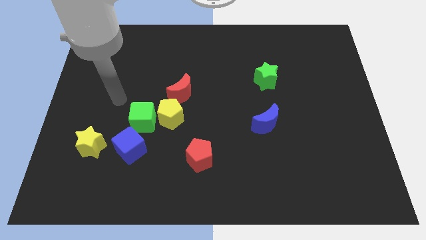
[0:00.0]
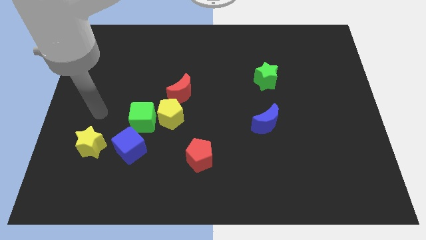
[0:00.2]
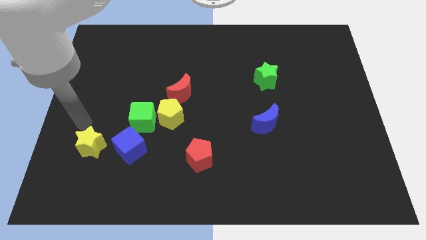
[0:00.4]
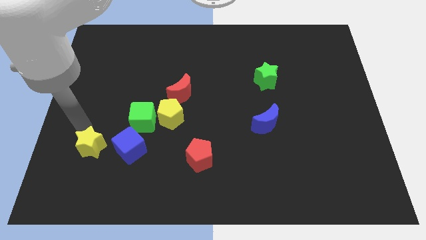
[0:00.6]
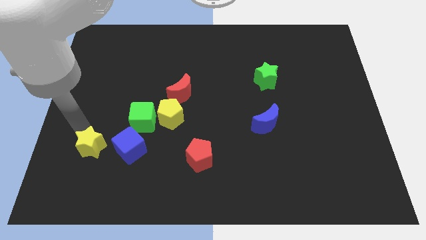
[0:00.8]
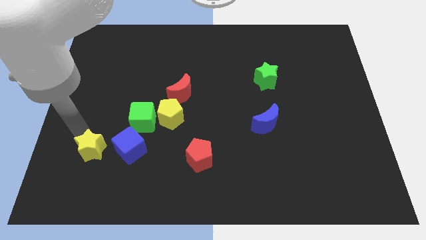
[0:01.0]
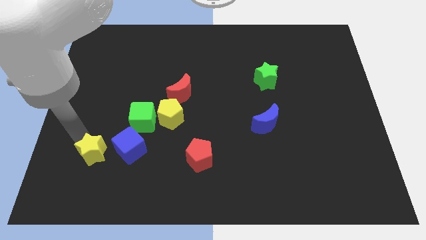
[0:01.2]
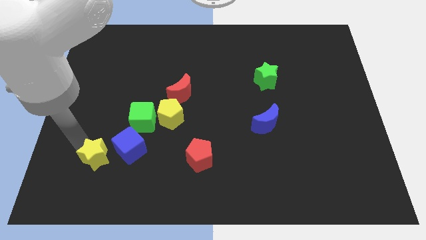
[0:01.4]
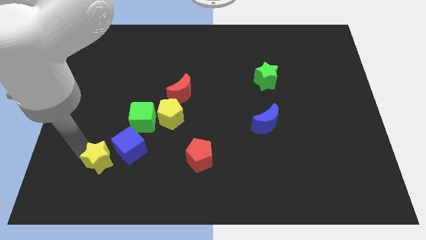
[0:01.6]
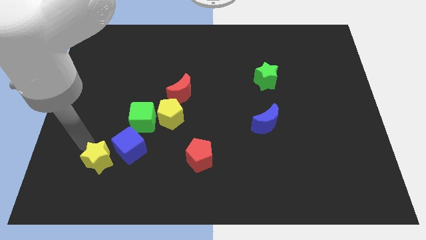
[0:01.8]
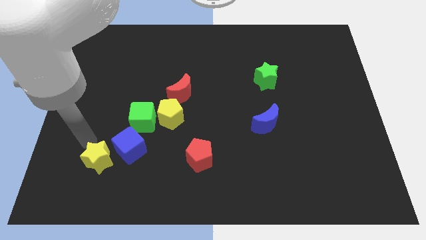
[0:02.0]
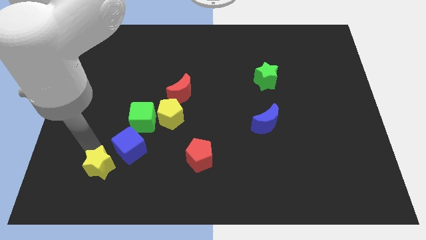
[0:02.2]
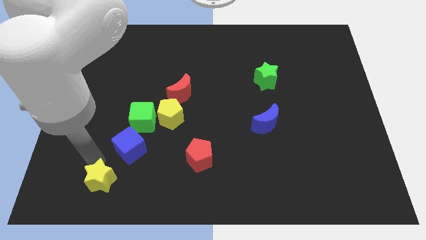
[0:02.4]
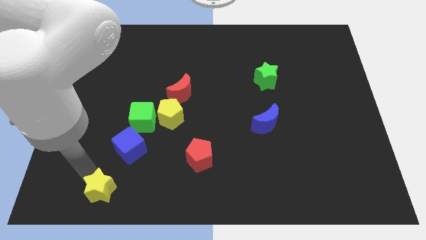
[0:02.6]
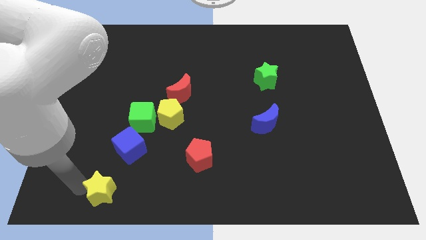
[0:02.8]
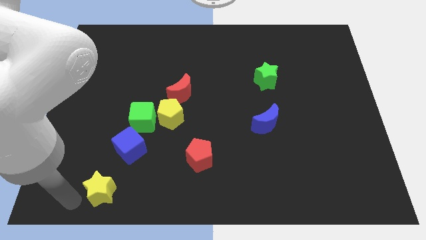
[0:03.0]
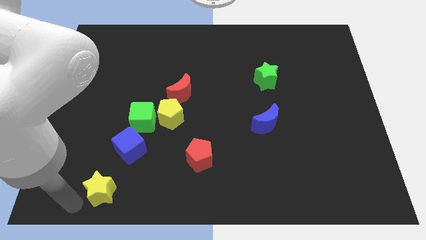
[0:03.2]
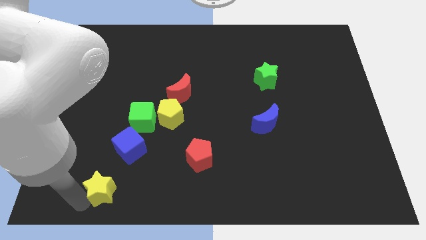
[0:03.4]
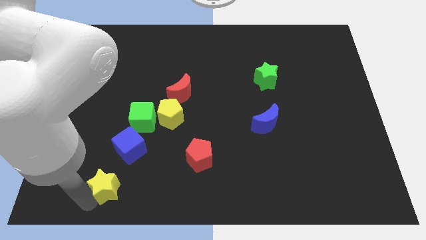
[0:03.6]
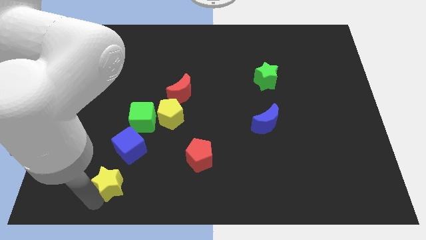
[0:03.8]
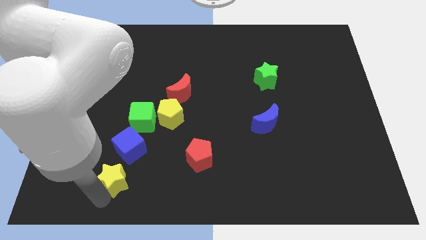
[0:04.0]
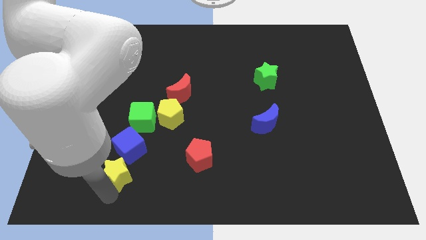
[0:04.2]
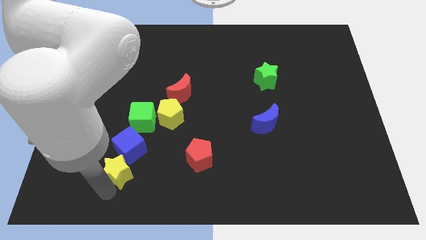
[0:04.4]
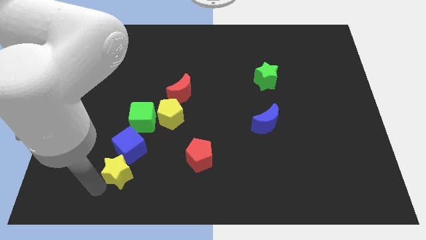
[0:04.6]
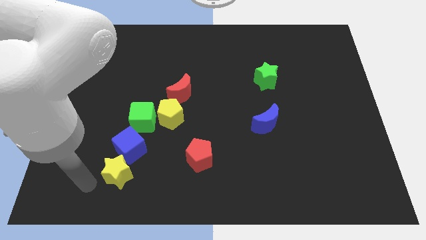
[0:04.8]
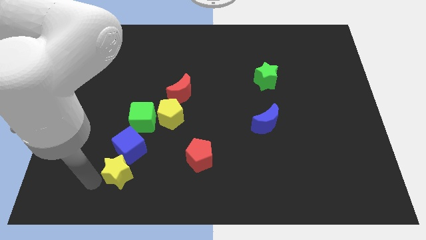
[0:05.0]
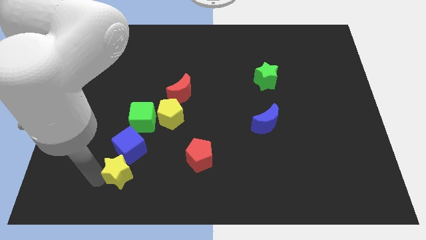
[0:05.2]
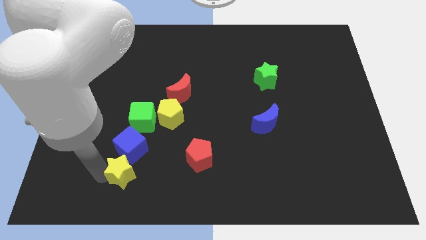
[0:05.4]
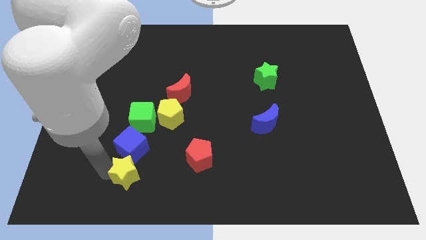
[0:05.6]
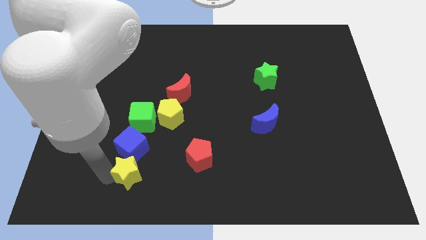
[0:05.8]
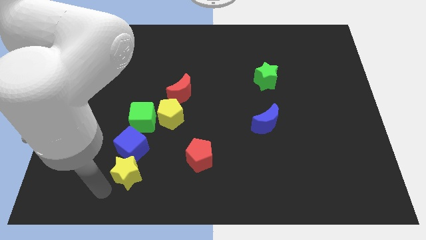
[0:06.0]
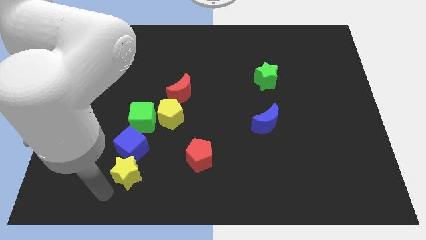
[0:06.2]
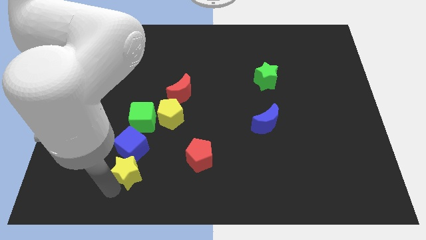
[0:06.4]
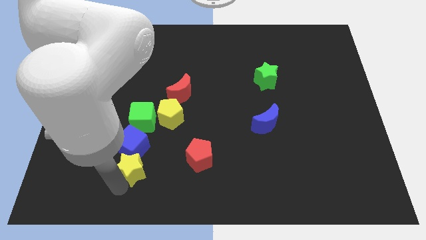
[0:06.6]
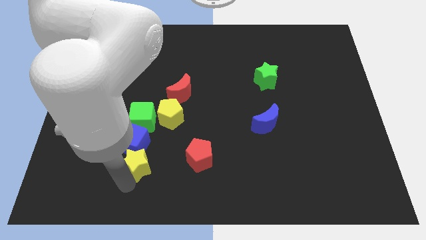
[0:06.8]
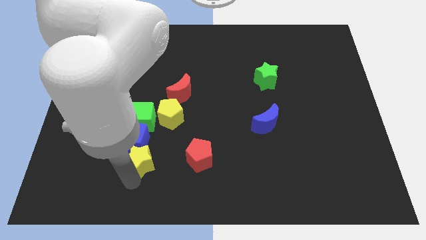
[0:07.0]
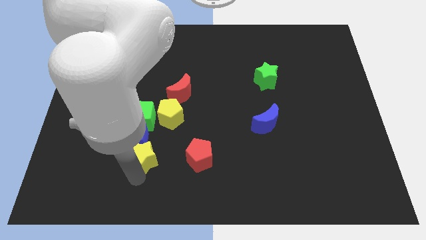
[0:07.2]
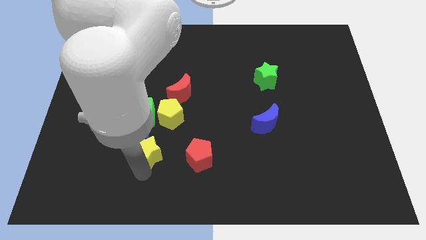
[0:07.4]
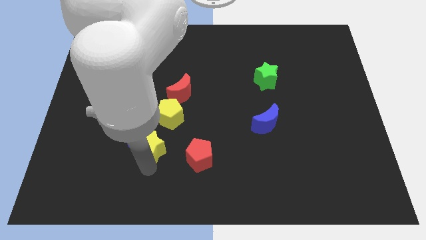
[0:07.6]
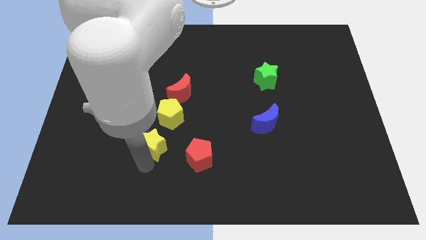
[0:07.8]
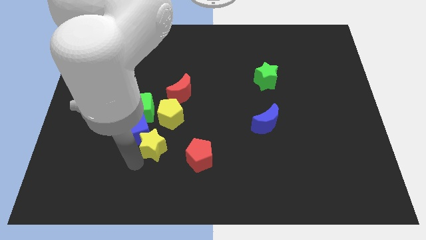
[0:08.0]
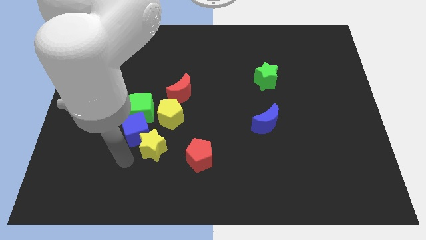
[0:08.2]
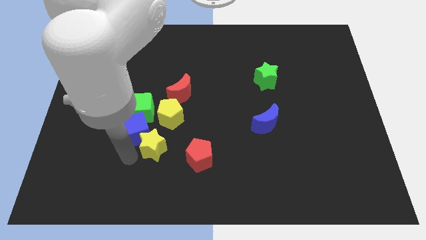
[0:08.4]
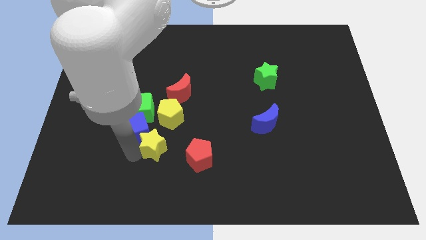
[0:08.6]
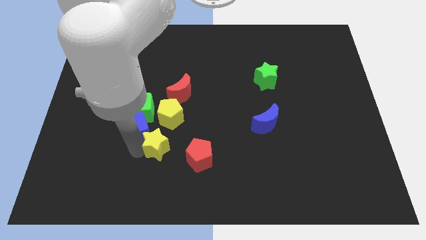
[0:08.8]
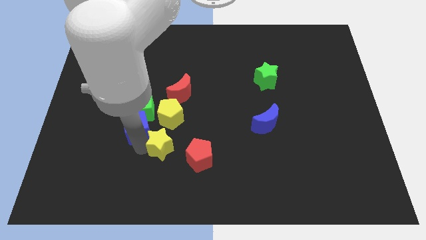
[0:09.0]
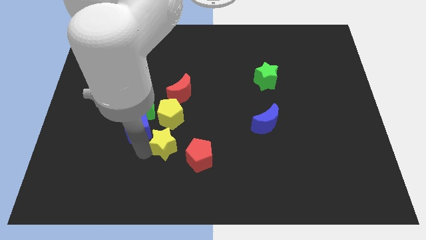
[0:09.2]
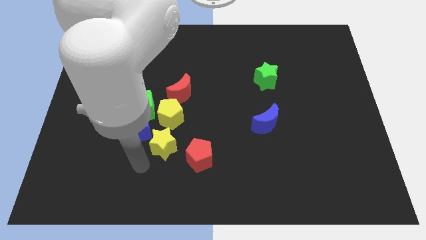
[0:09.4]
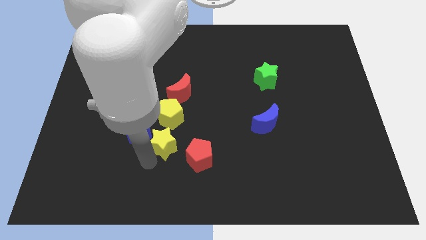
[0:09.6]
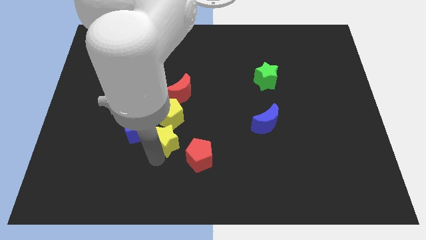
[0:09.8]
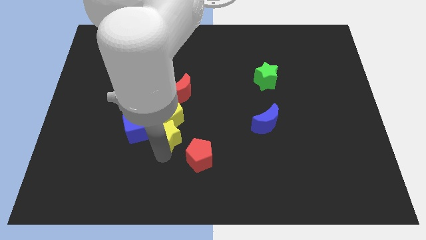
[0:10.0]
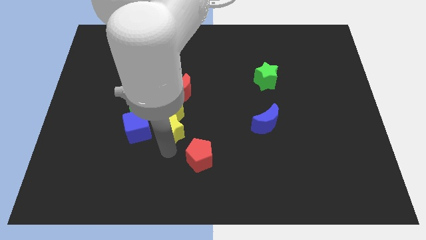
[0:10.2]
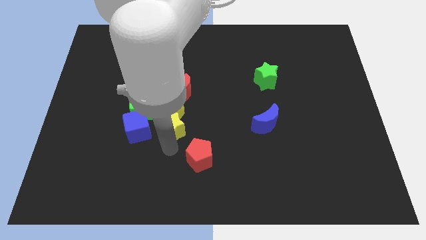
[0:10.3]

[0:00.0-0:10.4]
move the yellow star to the middle

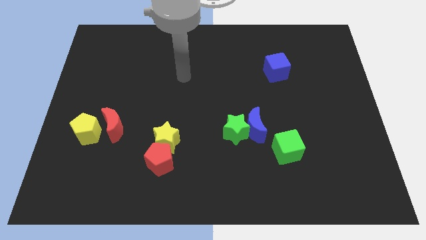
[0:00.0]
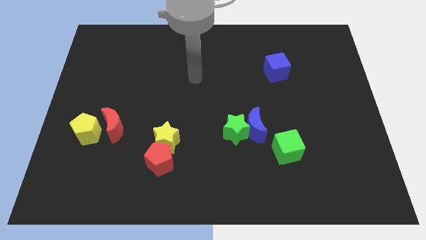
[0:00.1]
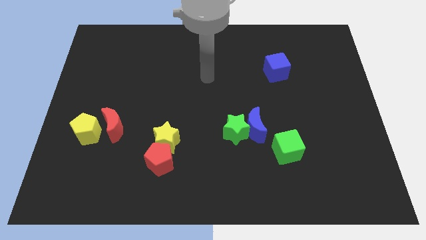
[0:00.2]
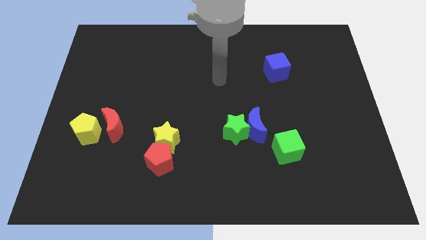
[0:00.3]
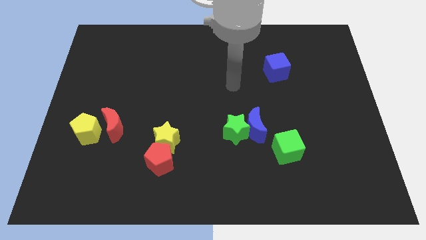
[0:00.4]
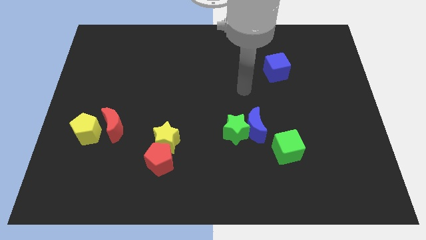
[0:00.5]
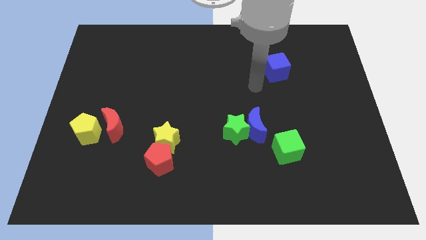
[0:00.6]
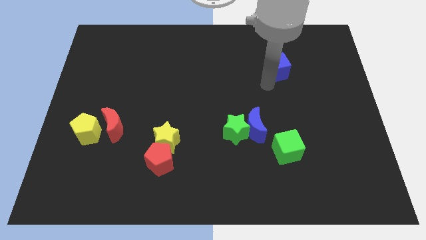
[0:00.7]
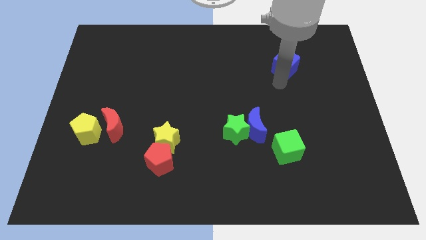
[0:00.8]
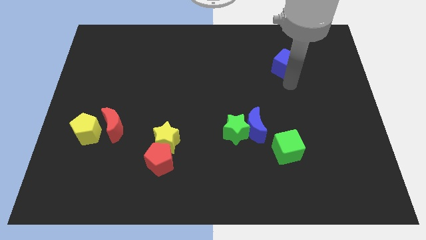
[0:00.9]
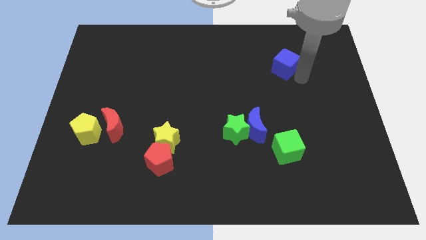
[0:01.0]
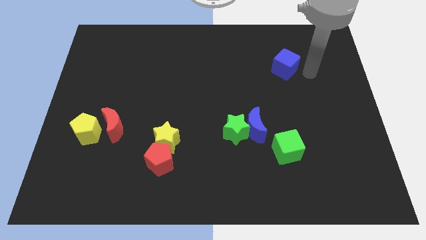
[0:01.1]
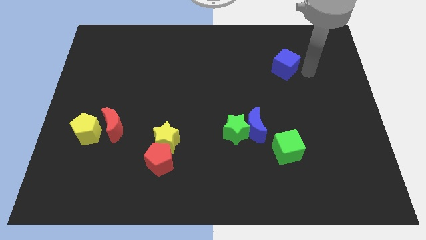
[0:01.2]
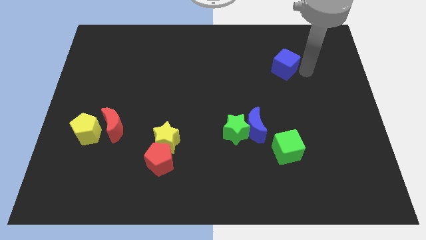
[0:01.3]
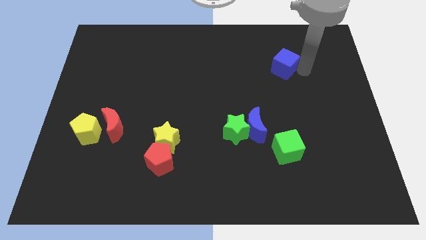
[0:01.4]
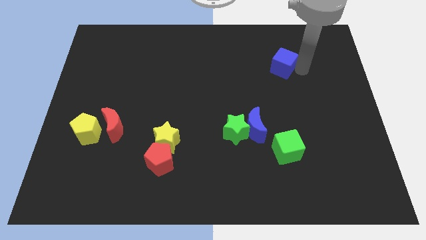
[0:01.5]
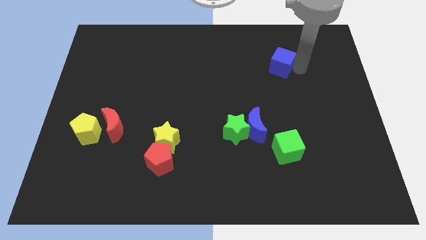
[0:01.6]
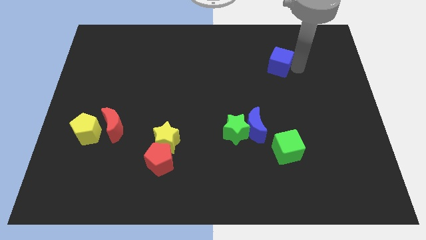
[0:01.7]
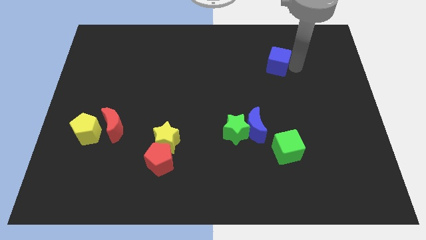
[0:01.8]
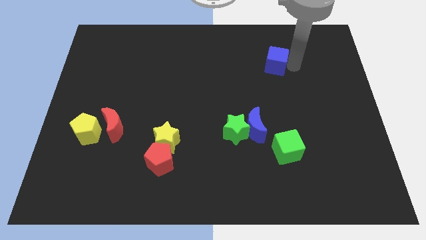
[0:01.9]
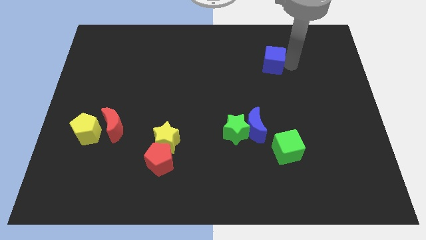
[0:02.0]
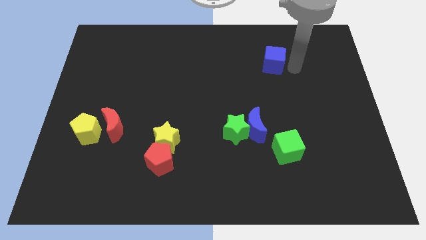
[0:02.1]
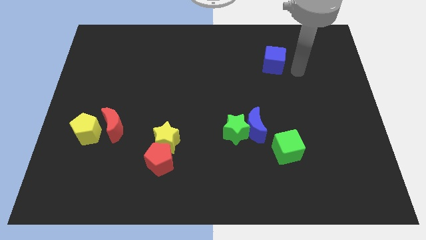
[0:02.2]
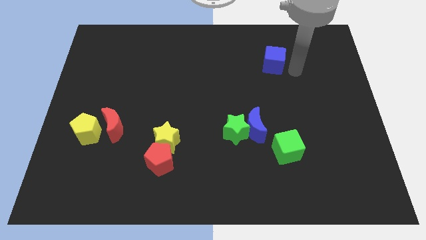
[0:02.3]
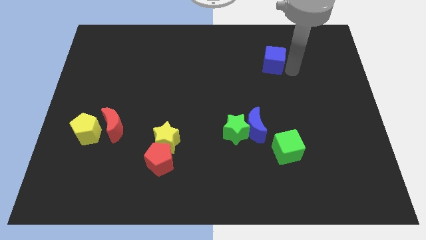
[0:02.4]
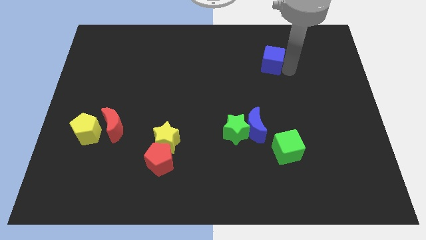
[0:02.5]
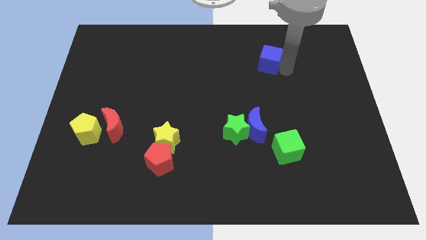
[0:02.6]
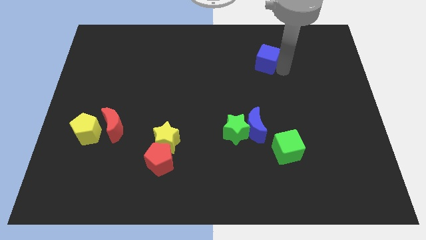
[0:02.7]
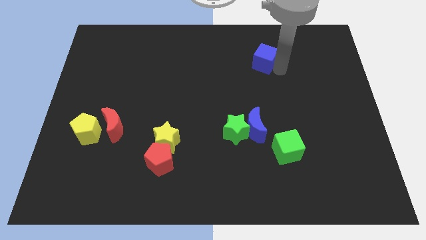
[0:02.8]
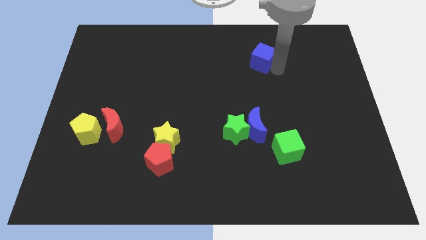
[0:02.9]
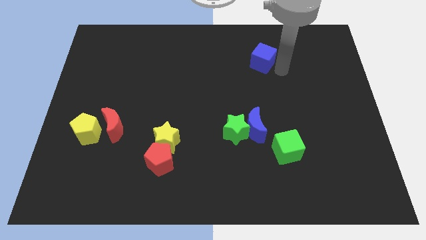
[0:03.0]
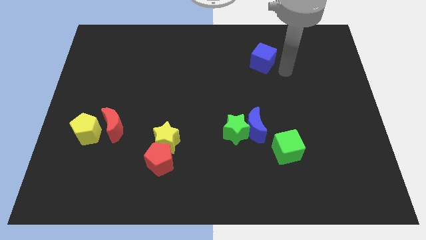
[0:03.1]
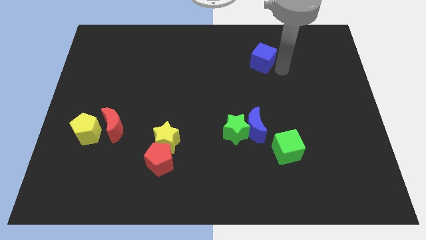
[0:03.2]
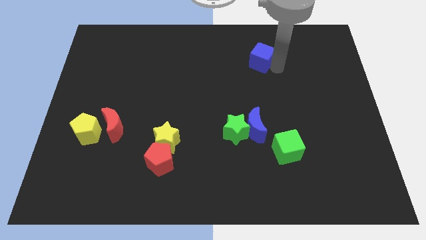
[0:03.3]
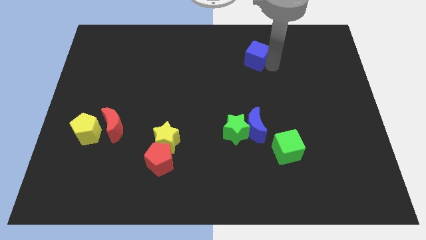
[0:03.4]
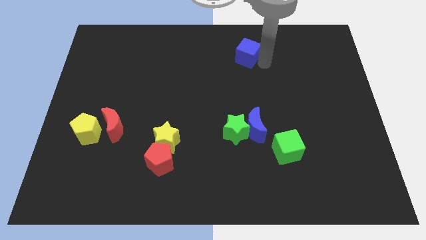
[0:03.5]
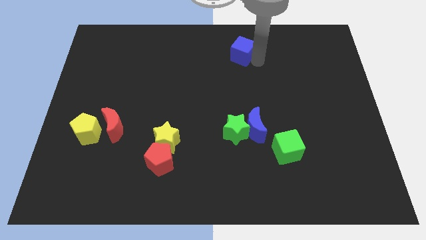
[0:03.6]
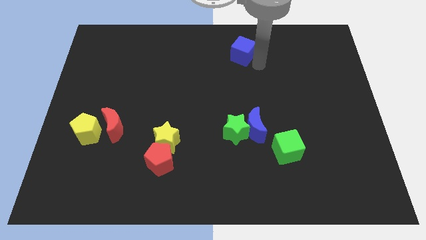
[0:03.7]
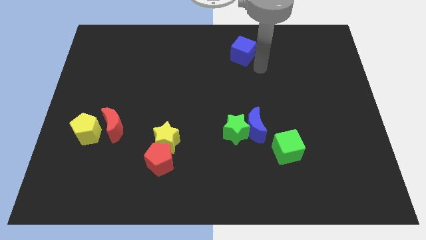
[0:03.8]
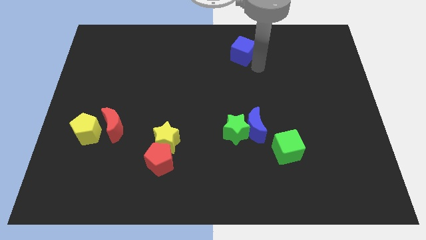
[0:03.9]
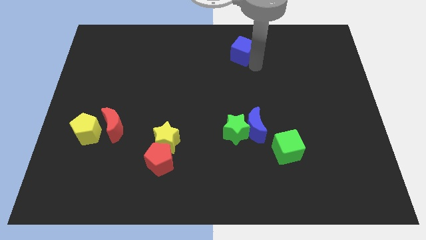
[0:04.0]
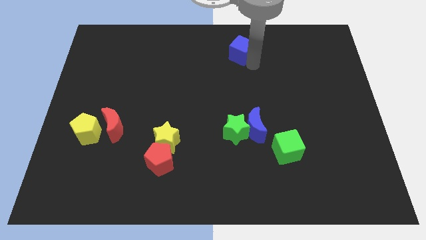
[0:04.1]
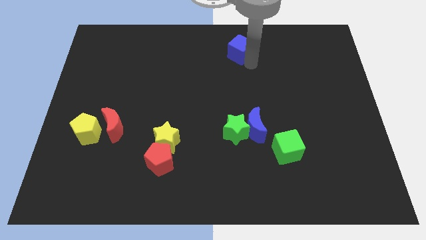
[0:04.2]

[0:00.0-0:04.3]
push the blue cube to the top
